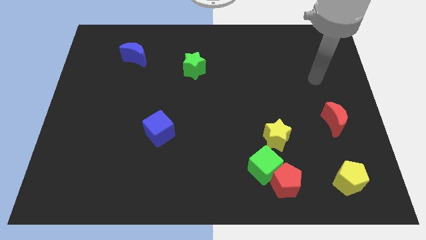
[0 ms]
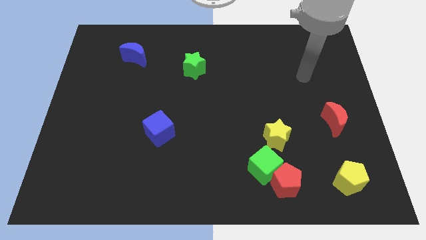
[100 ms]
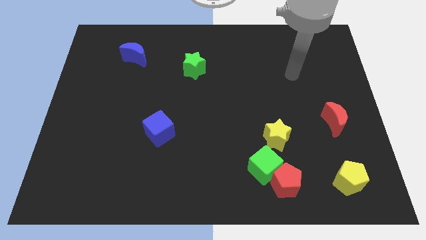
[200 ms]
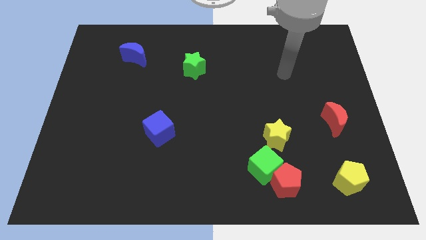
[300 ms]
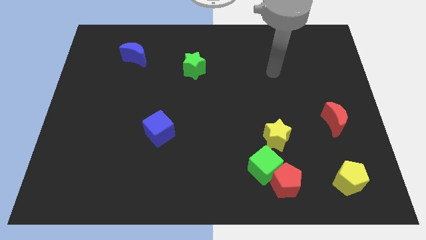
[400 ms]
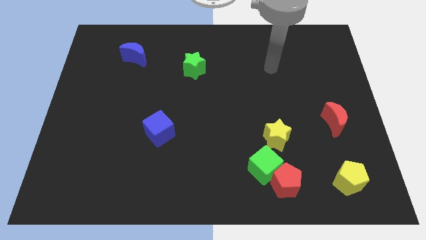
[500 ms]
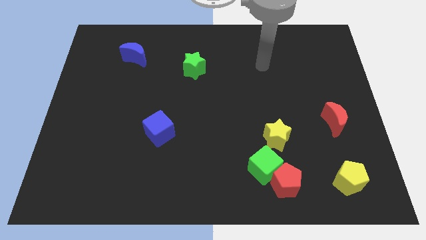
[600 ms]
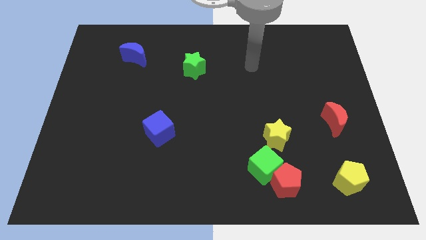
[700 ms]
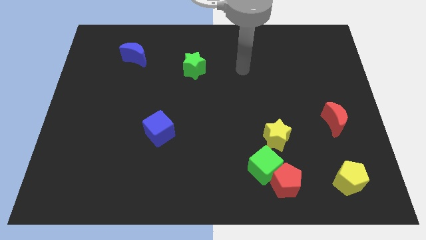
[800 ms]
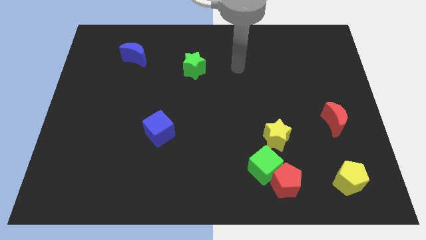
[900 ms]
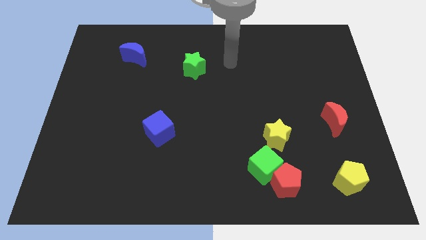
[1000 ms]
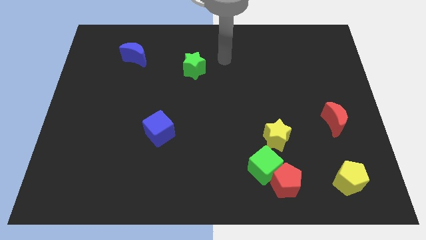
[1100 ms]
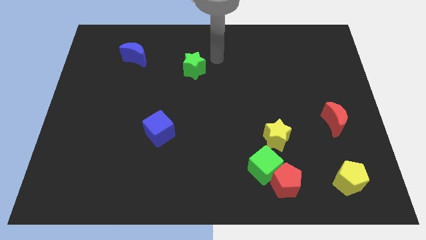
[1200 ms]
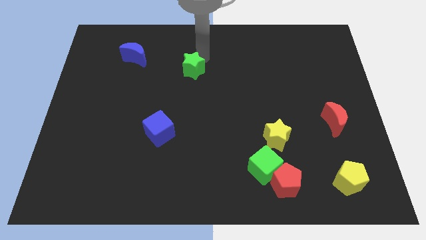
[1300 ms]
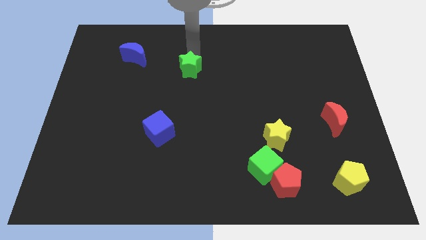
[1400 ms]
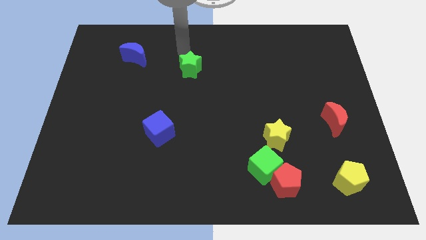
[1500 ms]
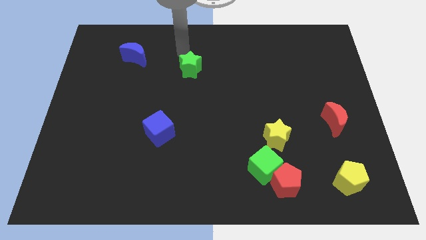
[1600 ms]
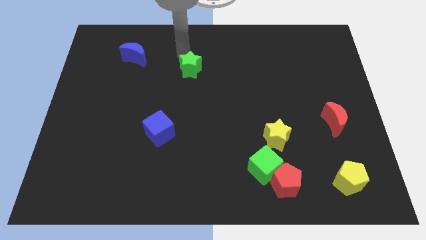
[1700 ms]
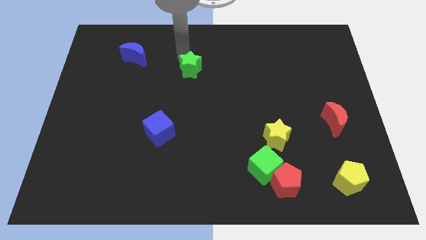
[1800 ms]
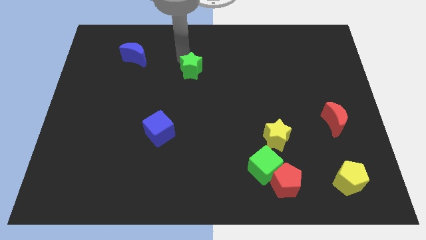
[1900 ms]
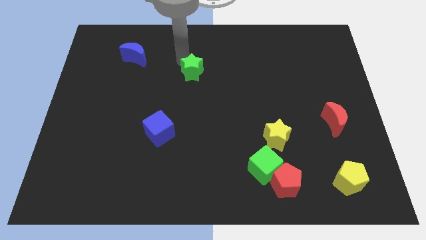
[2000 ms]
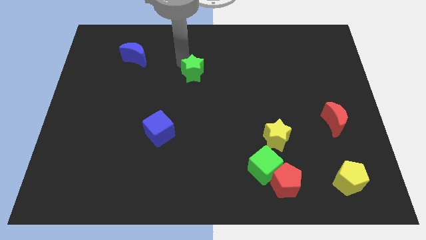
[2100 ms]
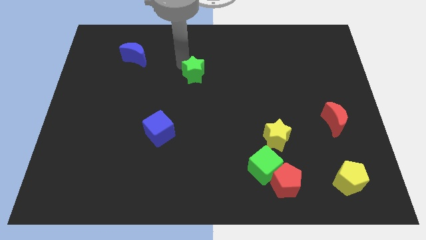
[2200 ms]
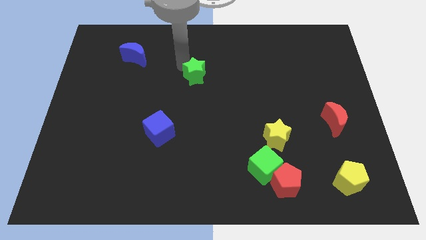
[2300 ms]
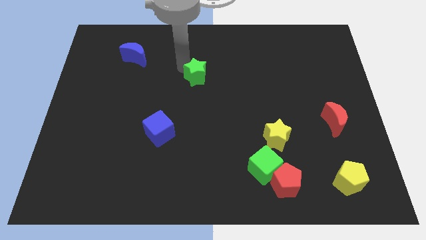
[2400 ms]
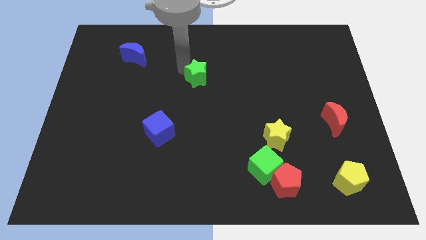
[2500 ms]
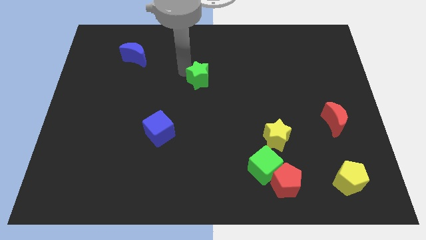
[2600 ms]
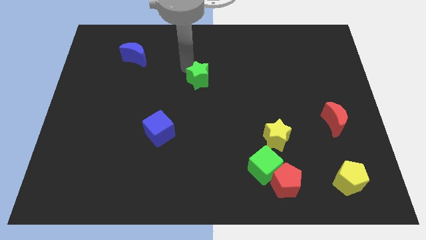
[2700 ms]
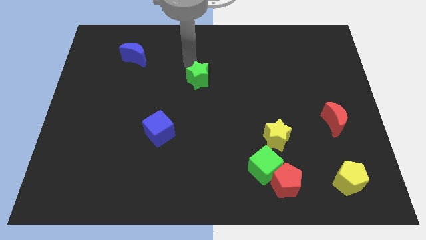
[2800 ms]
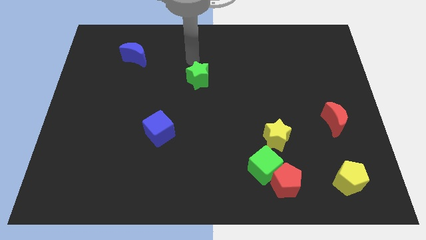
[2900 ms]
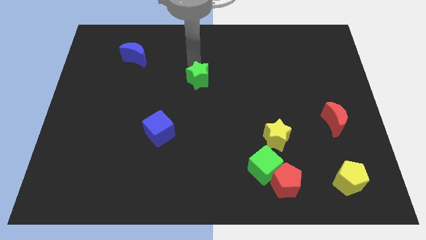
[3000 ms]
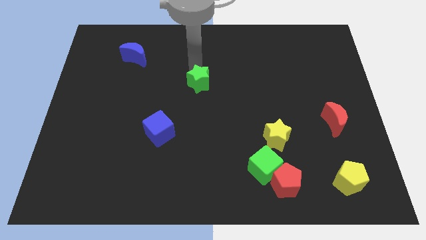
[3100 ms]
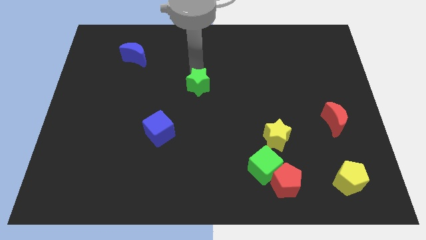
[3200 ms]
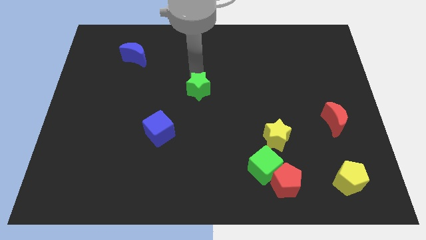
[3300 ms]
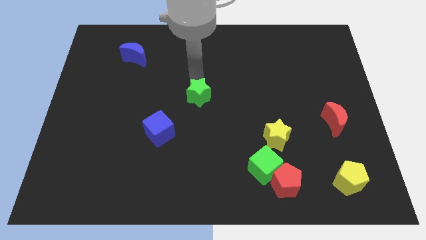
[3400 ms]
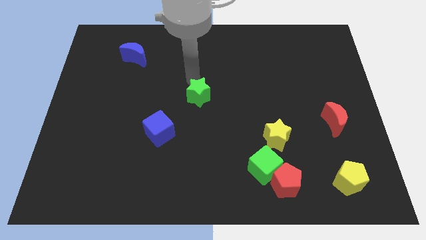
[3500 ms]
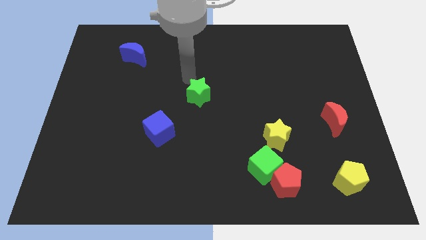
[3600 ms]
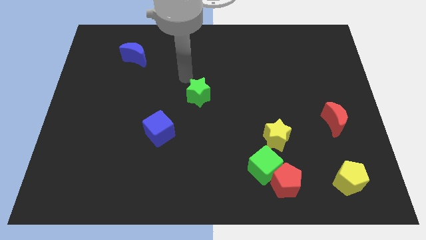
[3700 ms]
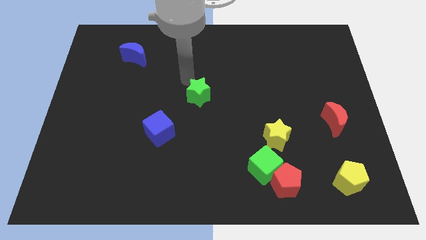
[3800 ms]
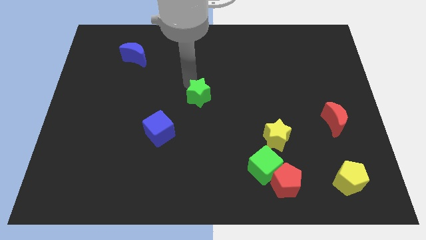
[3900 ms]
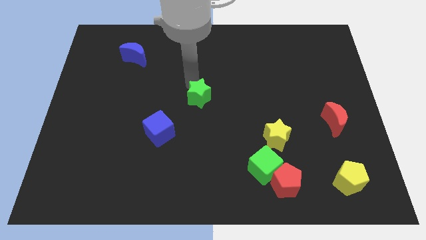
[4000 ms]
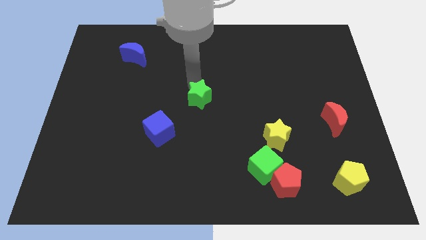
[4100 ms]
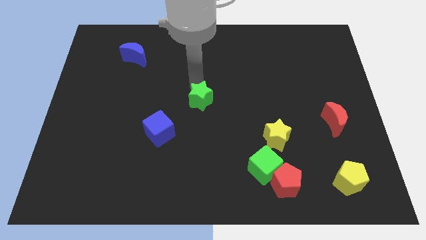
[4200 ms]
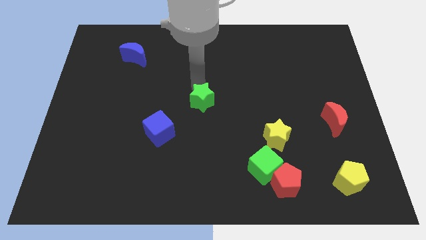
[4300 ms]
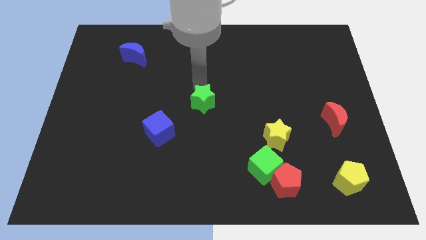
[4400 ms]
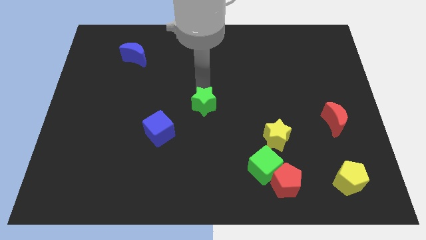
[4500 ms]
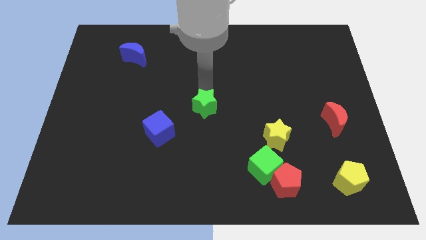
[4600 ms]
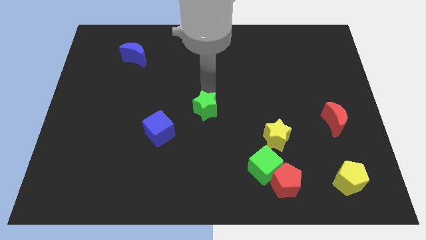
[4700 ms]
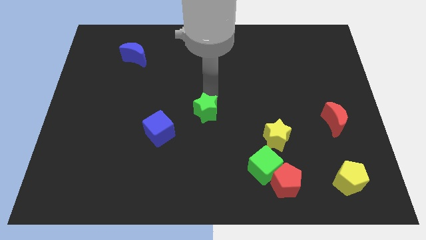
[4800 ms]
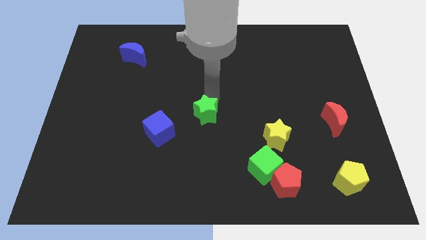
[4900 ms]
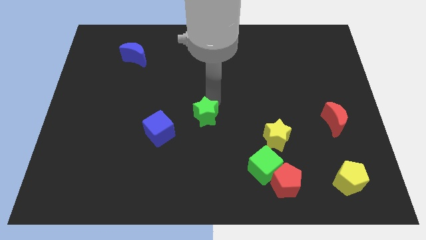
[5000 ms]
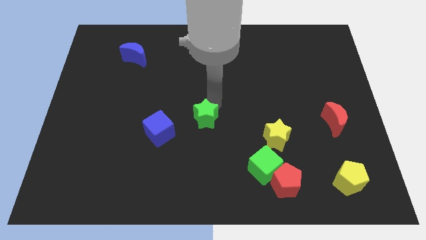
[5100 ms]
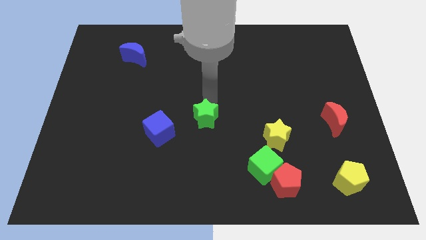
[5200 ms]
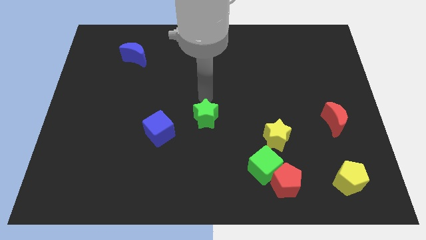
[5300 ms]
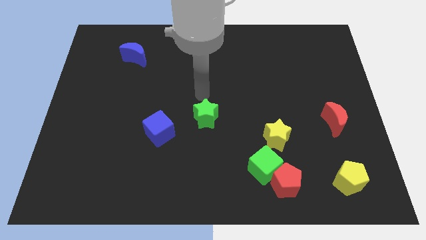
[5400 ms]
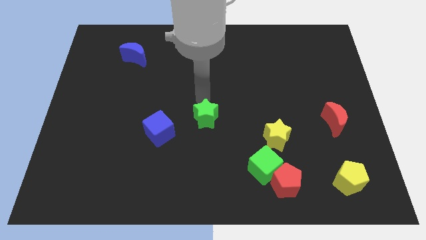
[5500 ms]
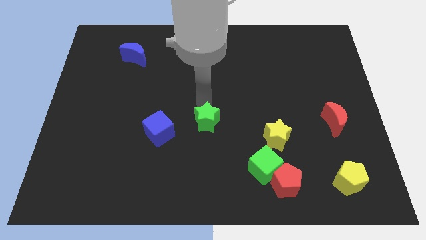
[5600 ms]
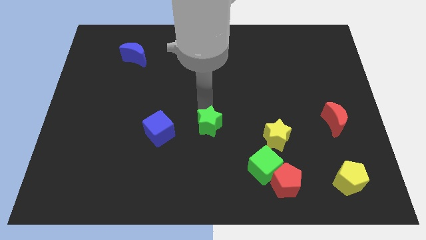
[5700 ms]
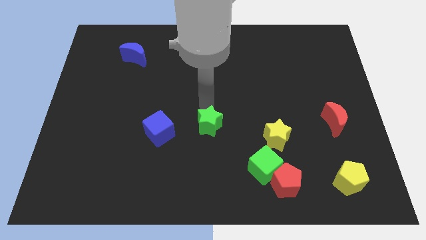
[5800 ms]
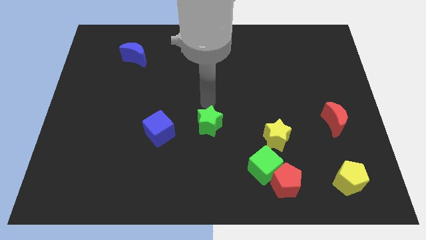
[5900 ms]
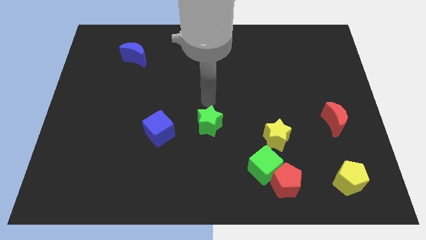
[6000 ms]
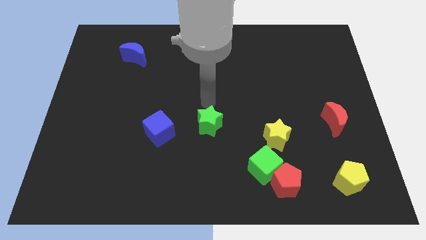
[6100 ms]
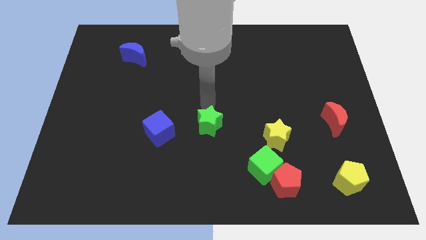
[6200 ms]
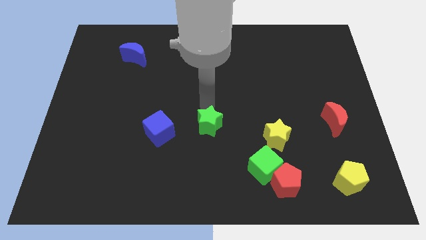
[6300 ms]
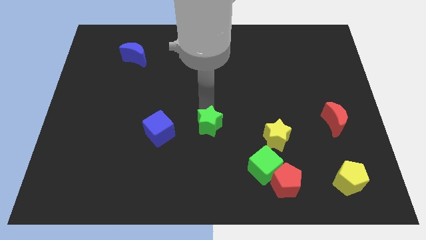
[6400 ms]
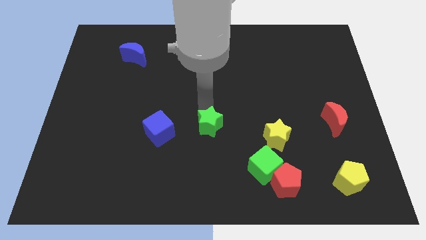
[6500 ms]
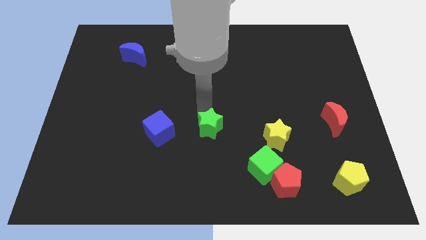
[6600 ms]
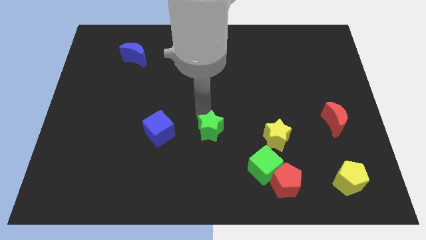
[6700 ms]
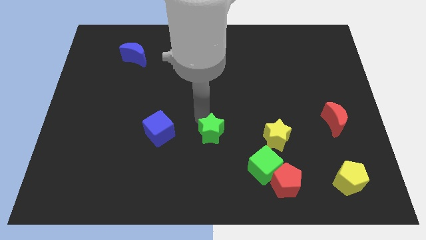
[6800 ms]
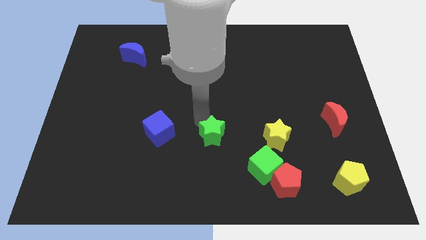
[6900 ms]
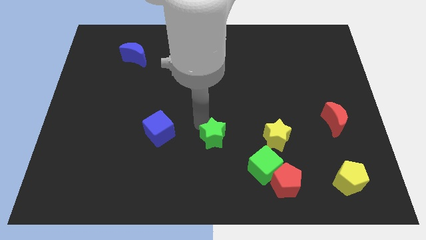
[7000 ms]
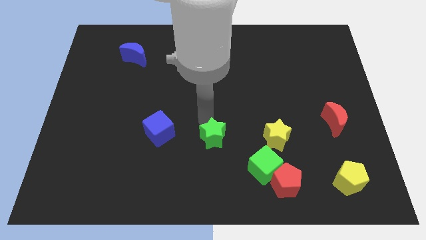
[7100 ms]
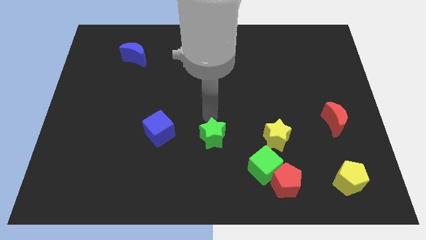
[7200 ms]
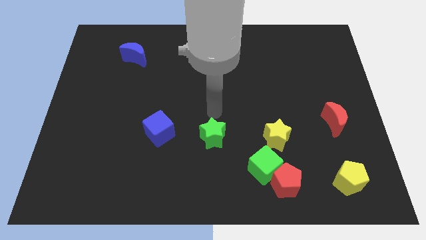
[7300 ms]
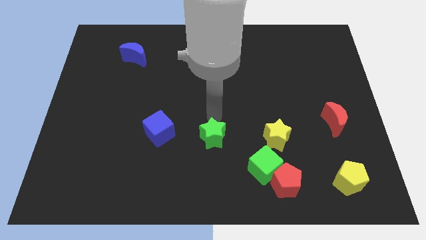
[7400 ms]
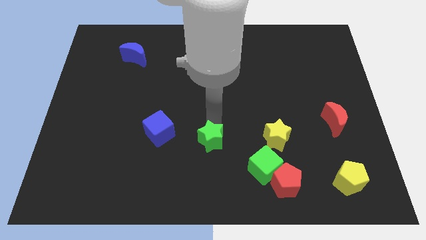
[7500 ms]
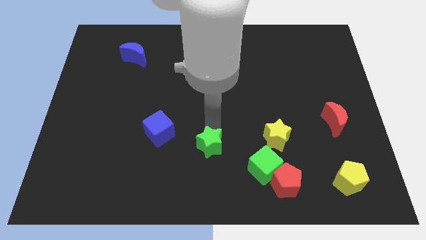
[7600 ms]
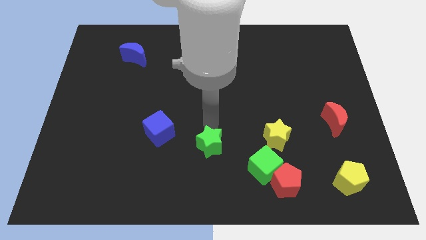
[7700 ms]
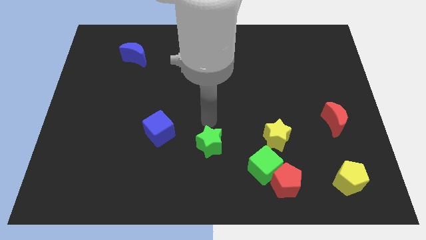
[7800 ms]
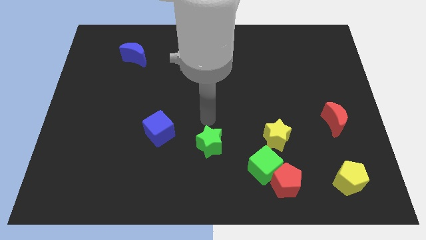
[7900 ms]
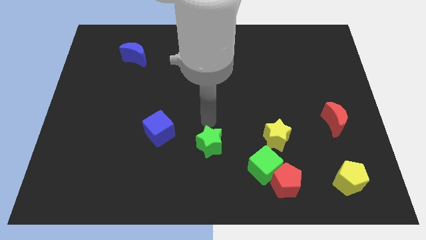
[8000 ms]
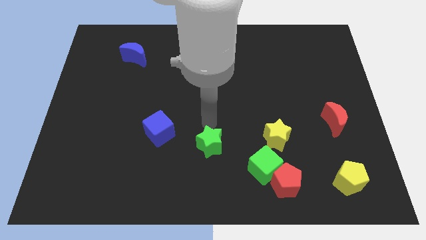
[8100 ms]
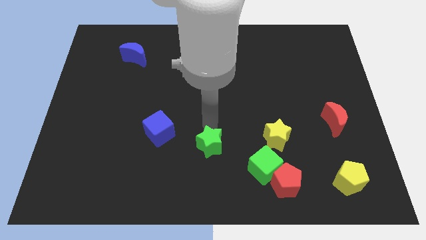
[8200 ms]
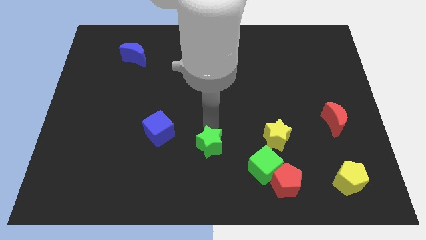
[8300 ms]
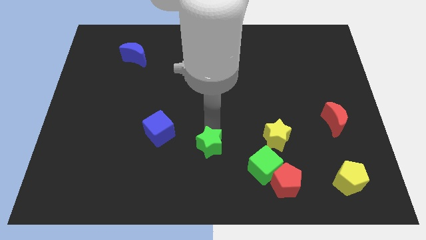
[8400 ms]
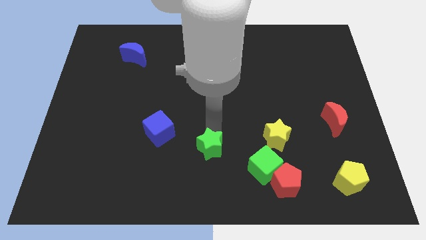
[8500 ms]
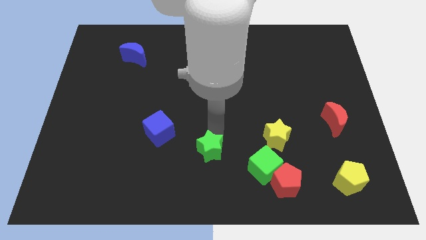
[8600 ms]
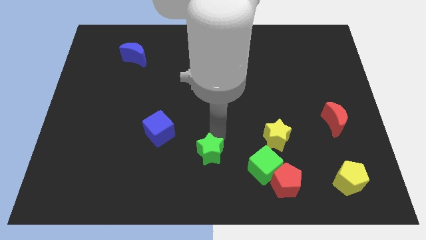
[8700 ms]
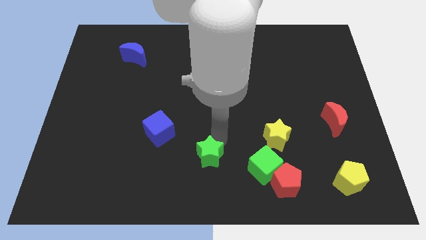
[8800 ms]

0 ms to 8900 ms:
slide the green star to the bottom side
